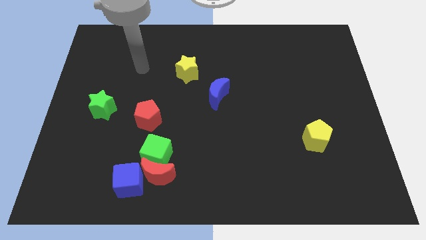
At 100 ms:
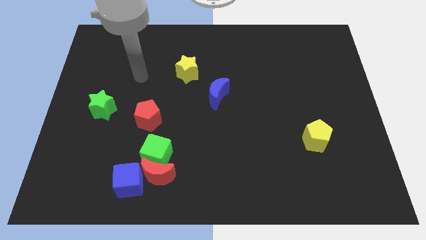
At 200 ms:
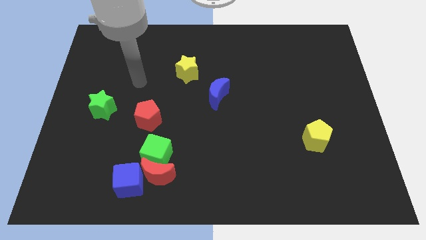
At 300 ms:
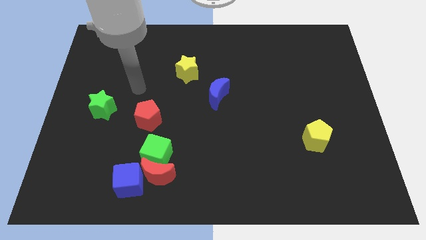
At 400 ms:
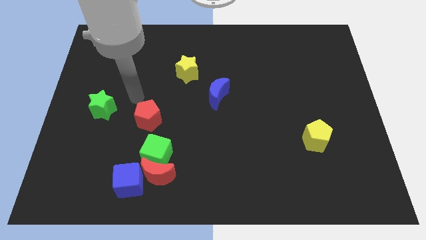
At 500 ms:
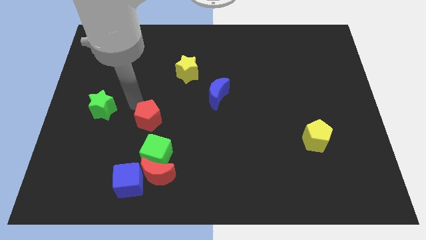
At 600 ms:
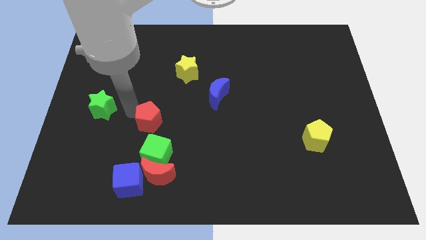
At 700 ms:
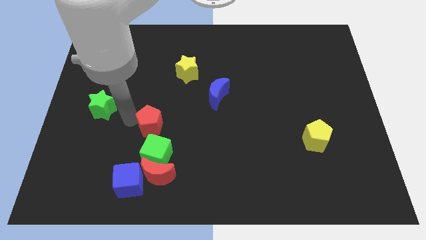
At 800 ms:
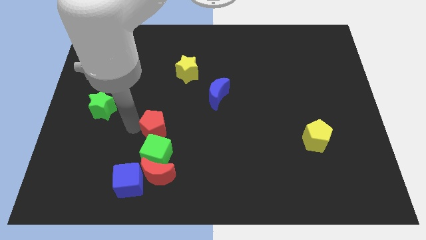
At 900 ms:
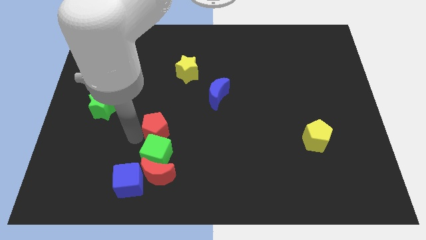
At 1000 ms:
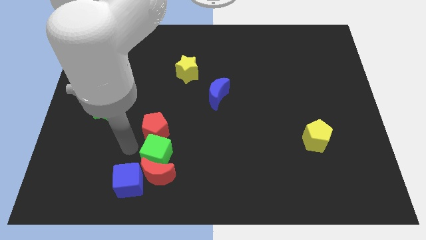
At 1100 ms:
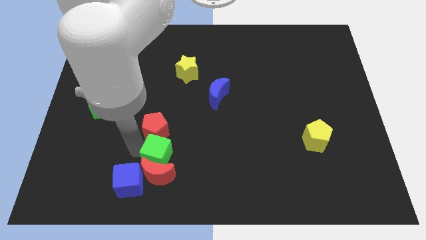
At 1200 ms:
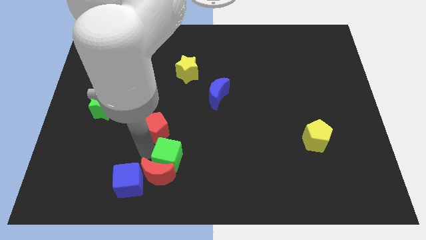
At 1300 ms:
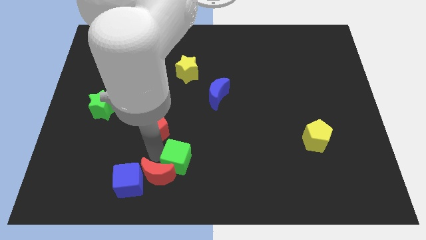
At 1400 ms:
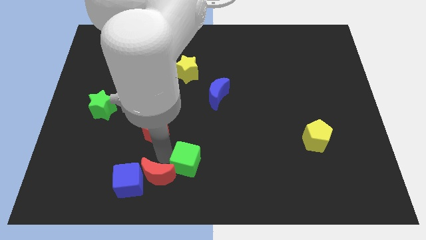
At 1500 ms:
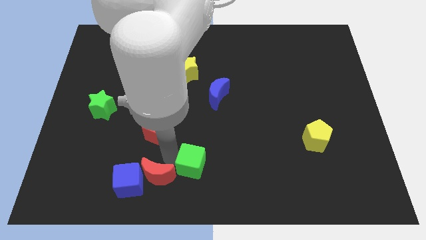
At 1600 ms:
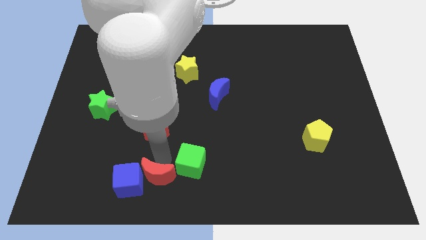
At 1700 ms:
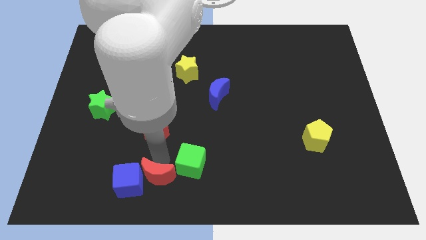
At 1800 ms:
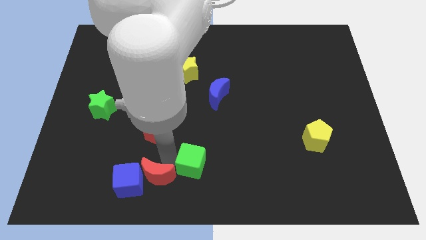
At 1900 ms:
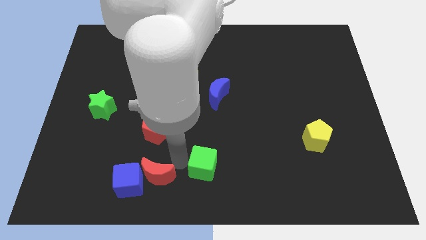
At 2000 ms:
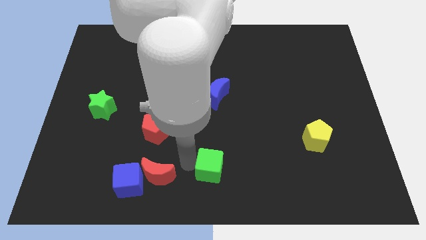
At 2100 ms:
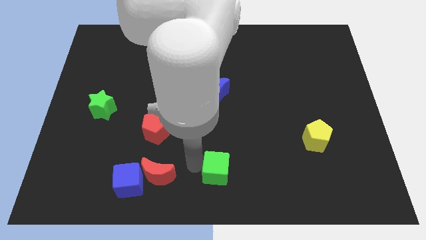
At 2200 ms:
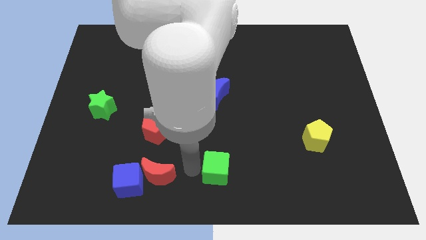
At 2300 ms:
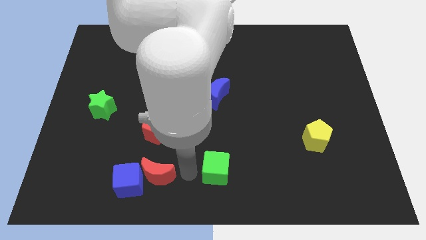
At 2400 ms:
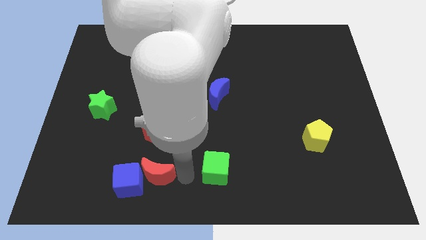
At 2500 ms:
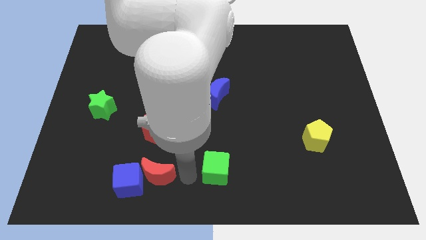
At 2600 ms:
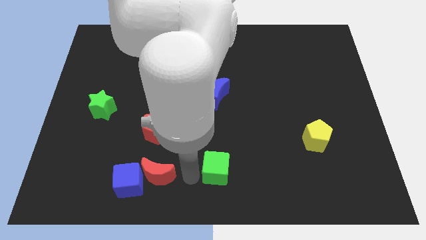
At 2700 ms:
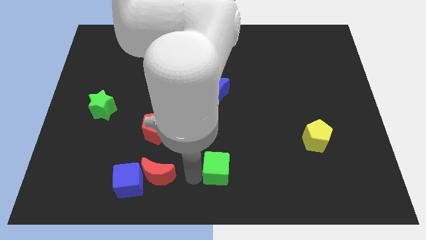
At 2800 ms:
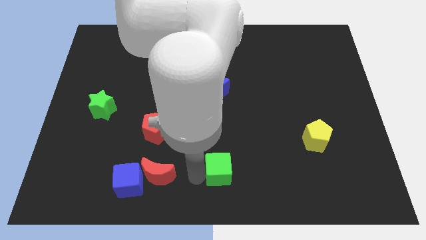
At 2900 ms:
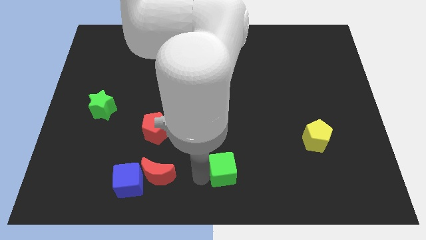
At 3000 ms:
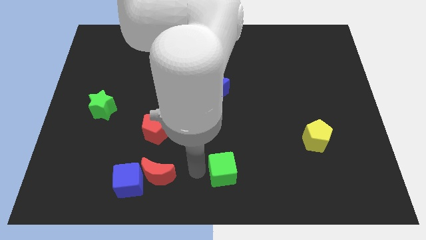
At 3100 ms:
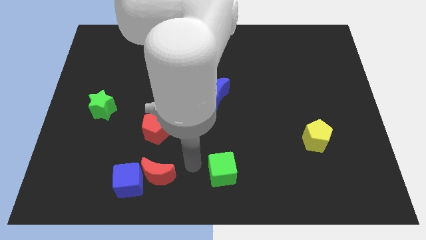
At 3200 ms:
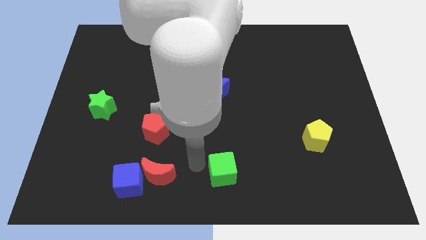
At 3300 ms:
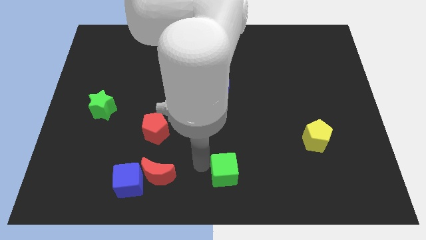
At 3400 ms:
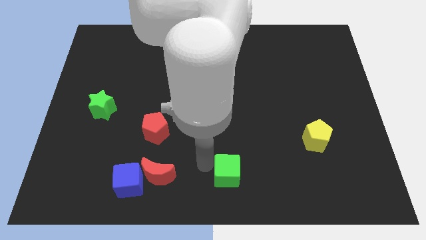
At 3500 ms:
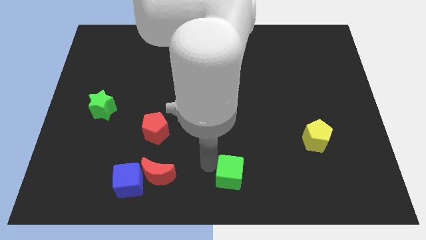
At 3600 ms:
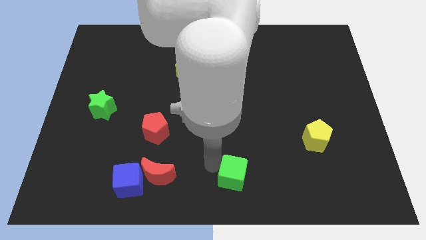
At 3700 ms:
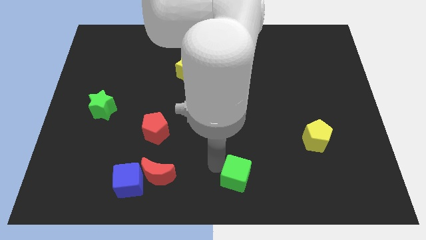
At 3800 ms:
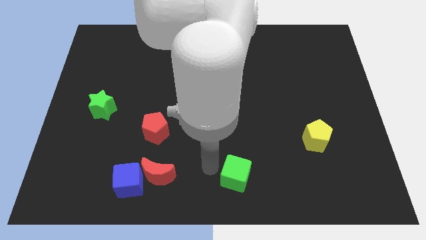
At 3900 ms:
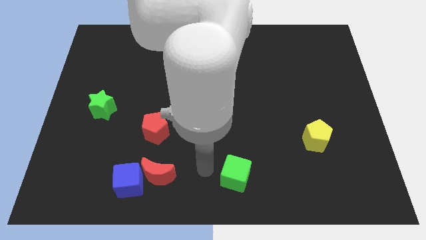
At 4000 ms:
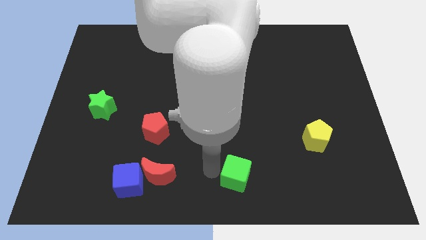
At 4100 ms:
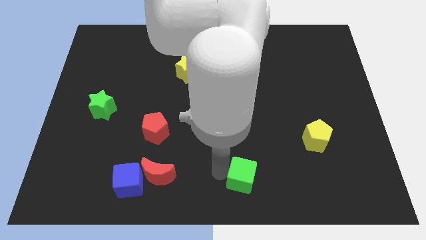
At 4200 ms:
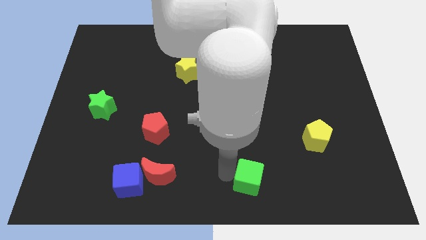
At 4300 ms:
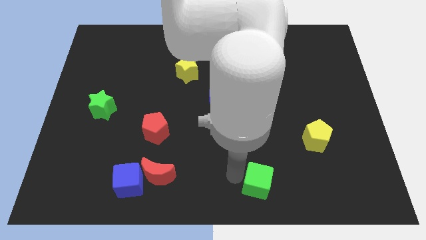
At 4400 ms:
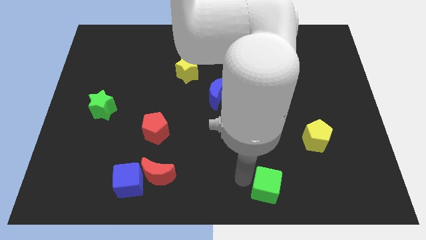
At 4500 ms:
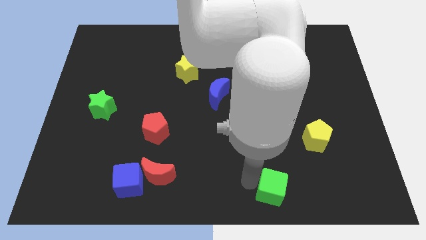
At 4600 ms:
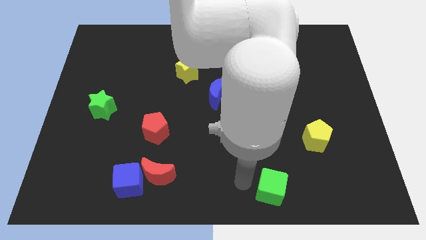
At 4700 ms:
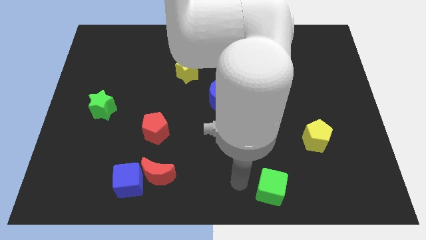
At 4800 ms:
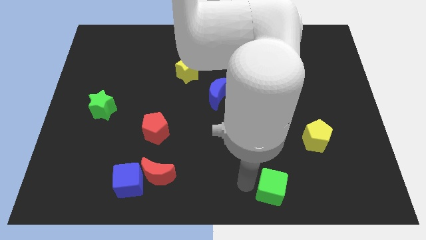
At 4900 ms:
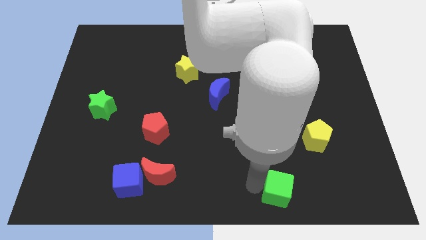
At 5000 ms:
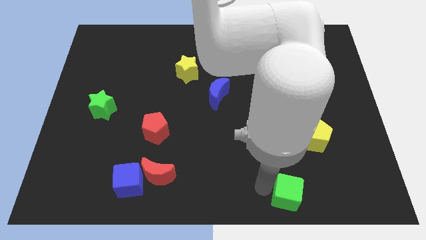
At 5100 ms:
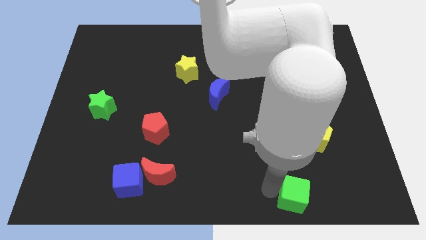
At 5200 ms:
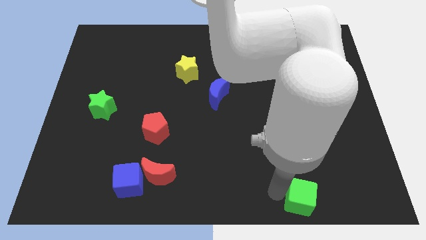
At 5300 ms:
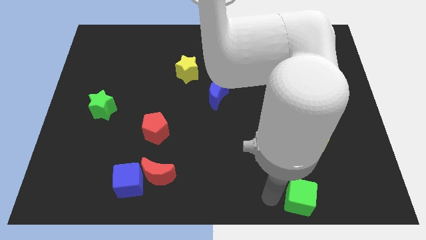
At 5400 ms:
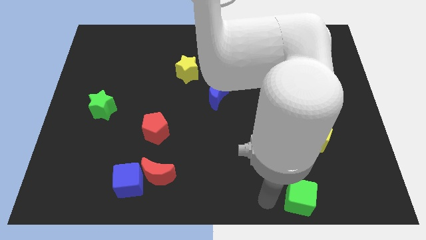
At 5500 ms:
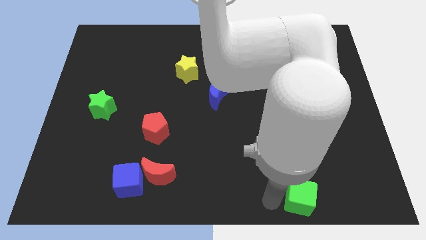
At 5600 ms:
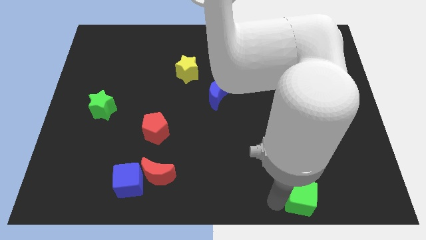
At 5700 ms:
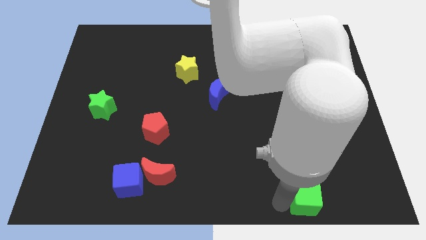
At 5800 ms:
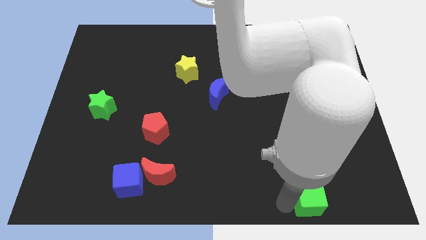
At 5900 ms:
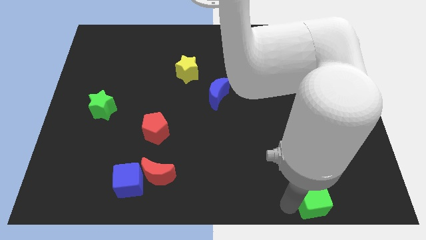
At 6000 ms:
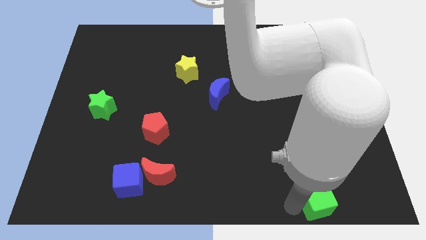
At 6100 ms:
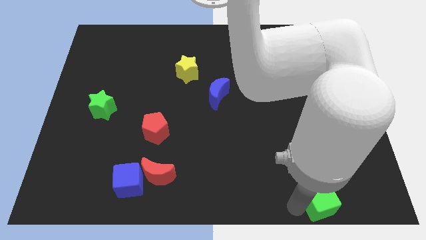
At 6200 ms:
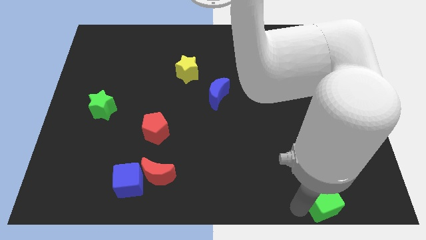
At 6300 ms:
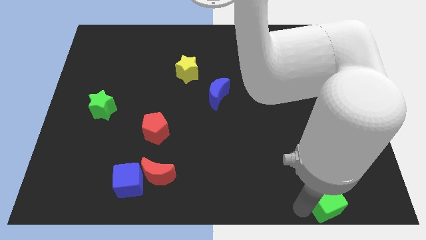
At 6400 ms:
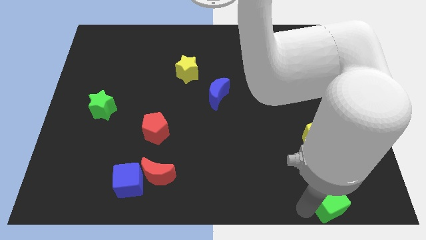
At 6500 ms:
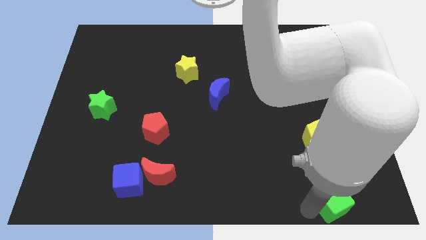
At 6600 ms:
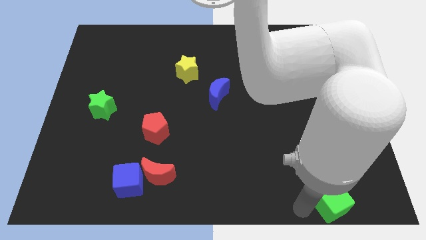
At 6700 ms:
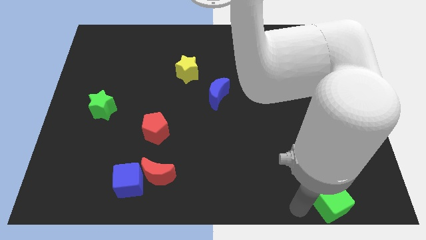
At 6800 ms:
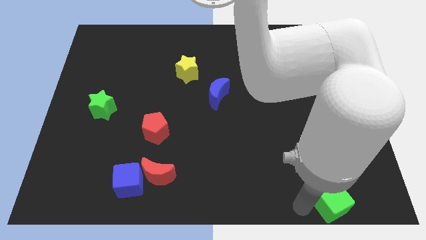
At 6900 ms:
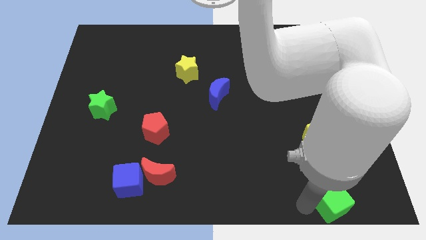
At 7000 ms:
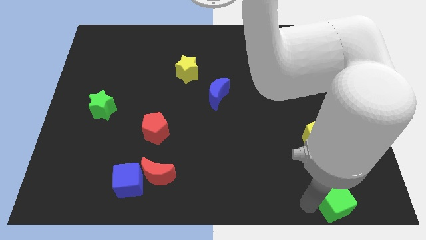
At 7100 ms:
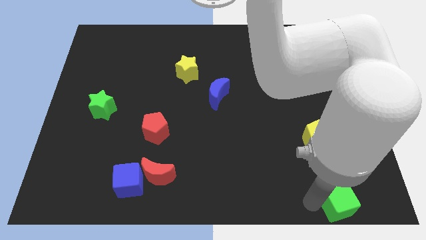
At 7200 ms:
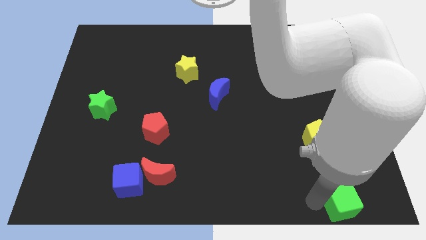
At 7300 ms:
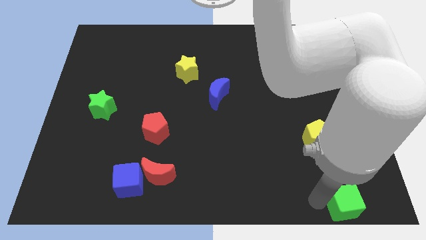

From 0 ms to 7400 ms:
put the green cube to the bottom right corner
